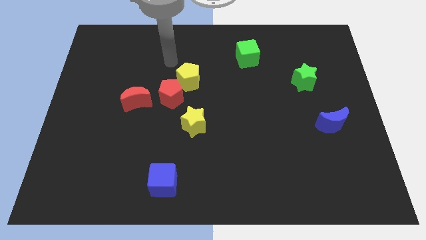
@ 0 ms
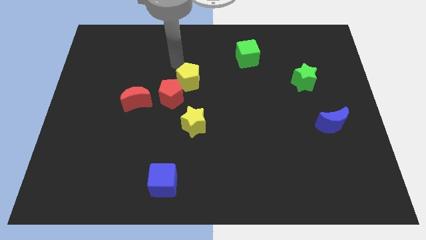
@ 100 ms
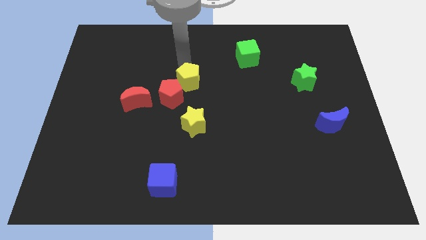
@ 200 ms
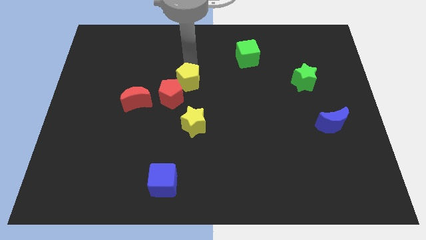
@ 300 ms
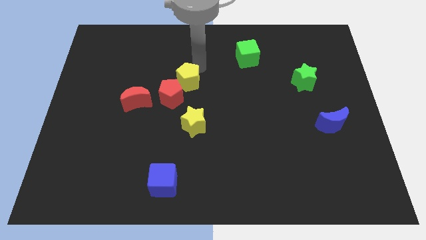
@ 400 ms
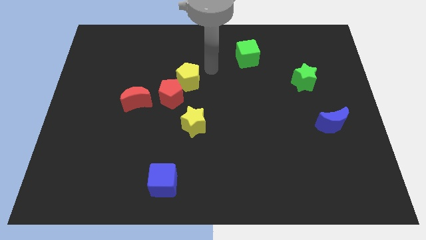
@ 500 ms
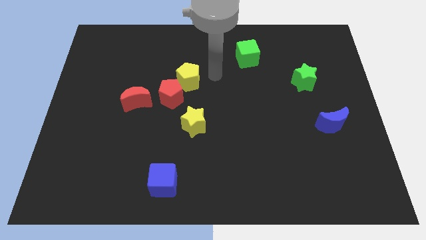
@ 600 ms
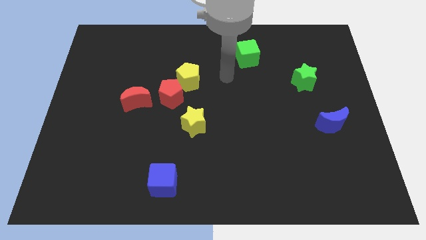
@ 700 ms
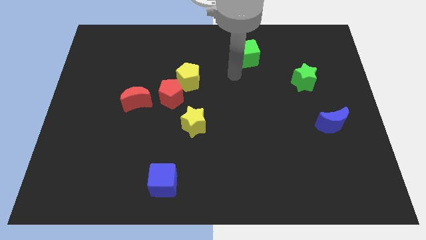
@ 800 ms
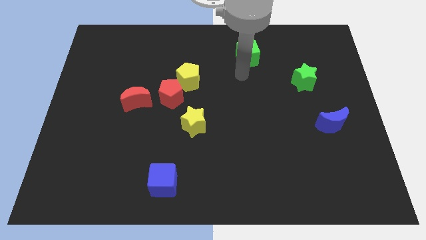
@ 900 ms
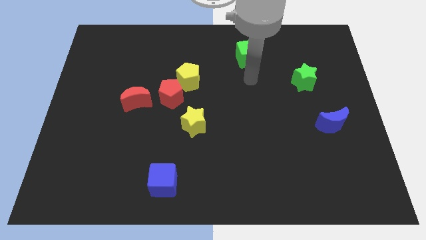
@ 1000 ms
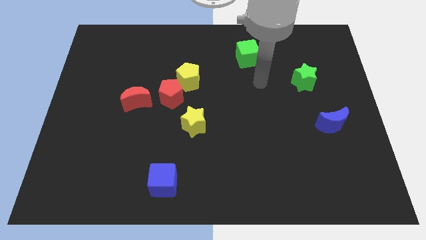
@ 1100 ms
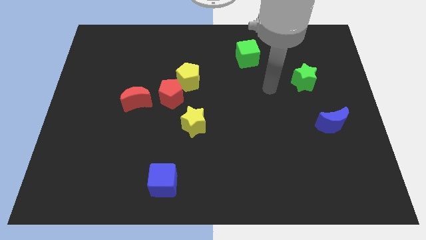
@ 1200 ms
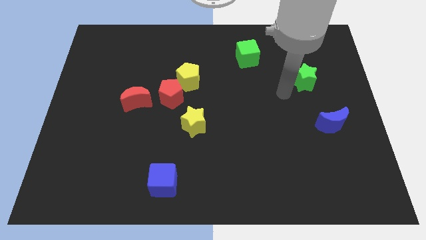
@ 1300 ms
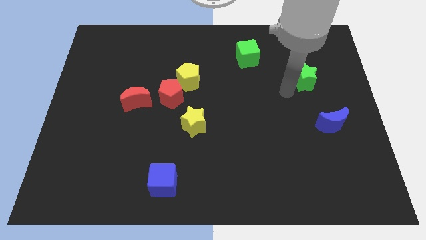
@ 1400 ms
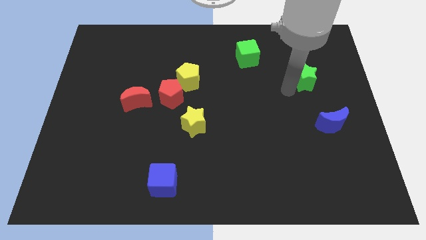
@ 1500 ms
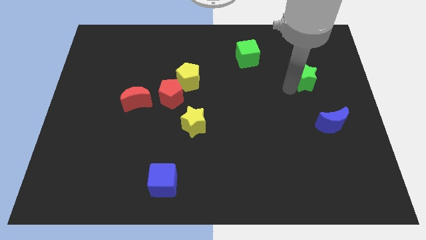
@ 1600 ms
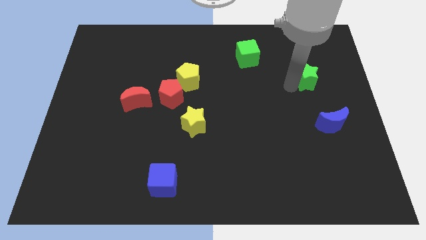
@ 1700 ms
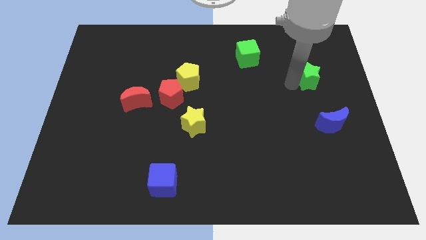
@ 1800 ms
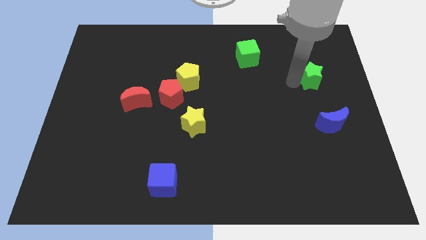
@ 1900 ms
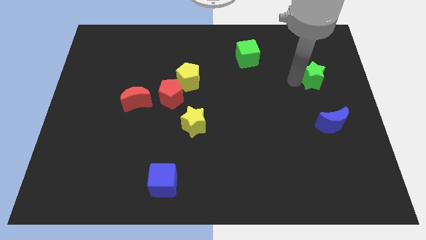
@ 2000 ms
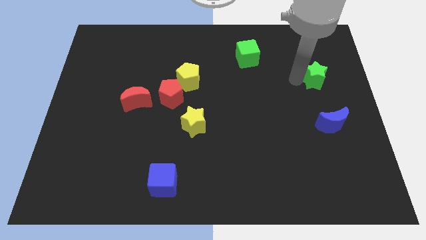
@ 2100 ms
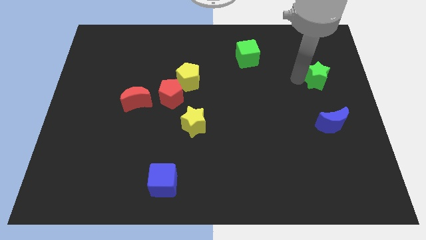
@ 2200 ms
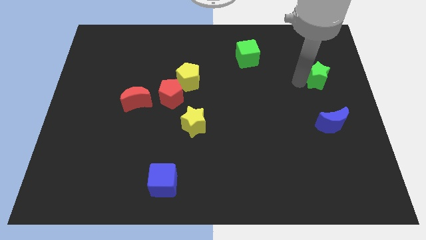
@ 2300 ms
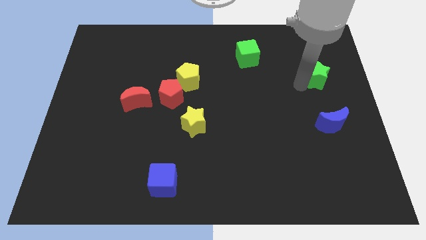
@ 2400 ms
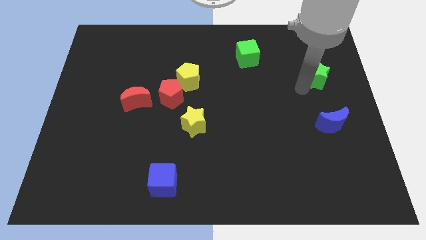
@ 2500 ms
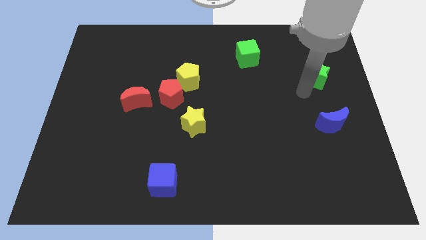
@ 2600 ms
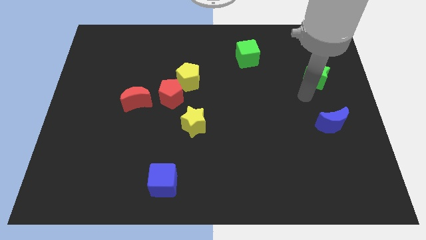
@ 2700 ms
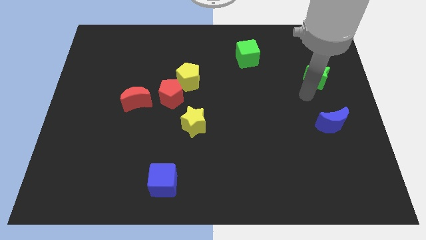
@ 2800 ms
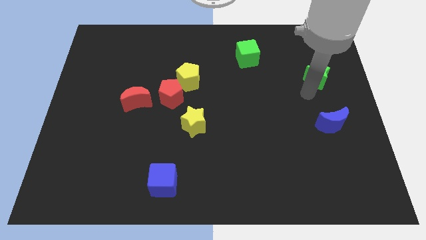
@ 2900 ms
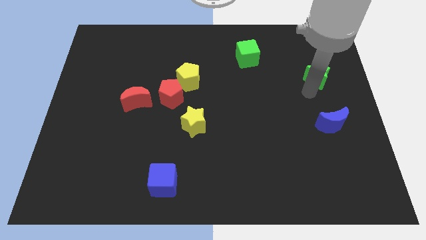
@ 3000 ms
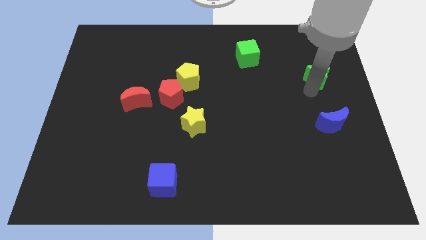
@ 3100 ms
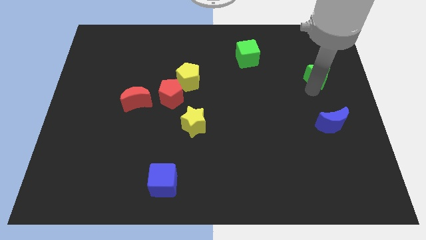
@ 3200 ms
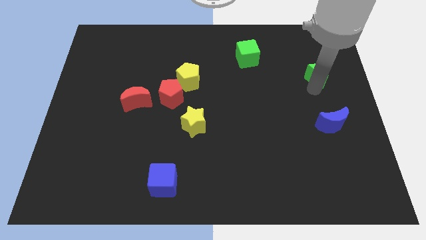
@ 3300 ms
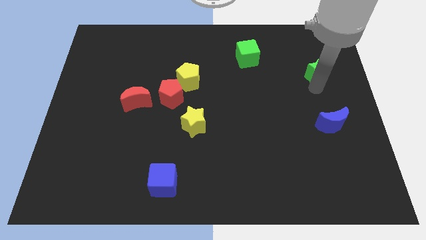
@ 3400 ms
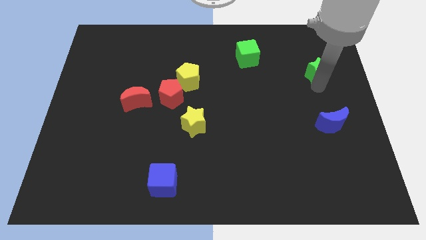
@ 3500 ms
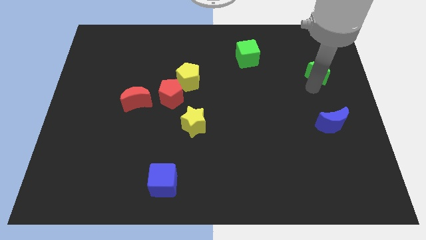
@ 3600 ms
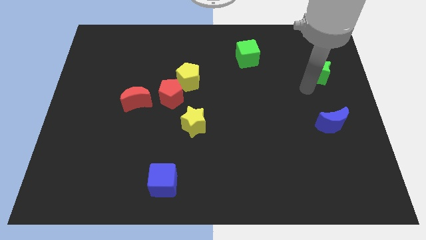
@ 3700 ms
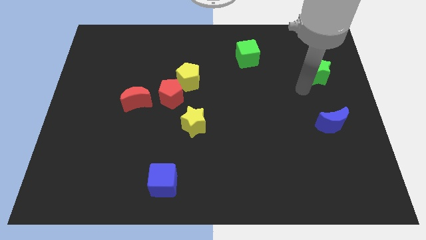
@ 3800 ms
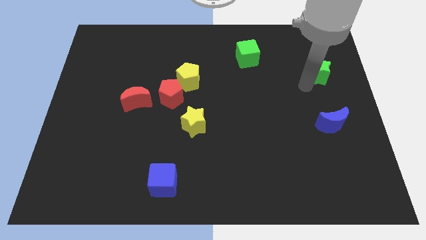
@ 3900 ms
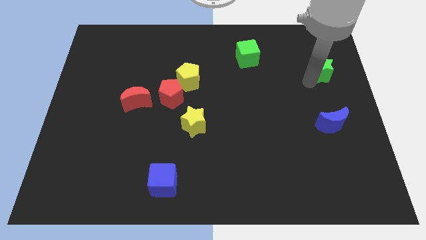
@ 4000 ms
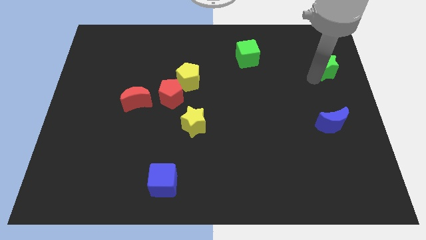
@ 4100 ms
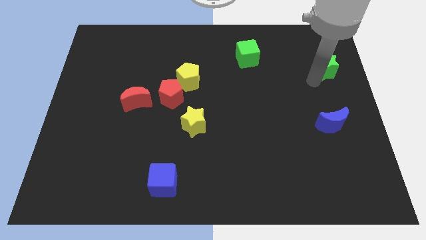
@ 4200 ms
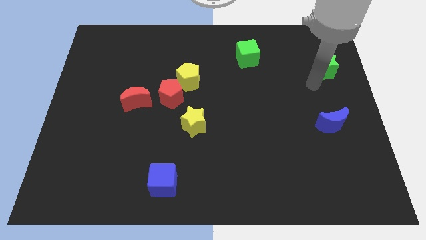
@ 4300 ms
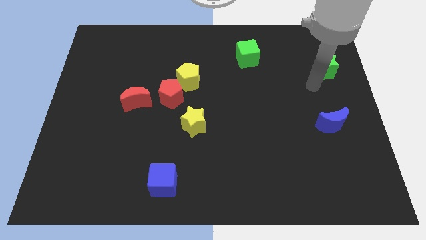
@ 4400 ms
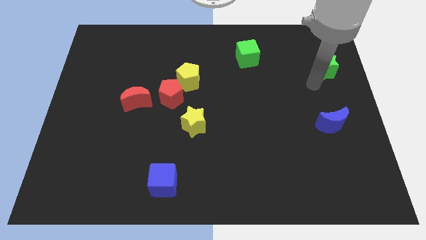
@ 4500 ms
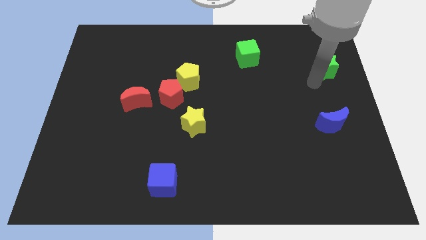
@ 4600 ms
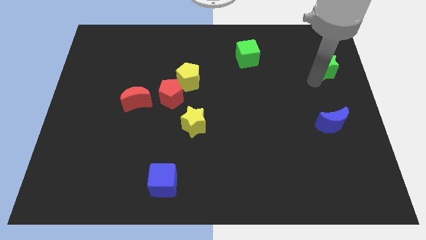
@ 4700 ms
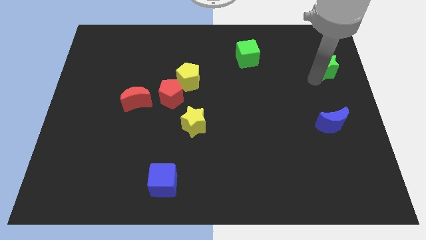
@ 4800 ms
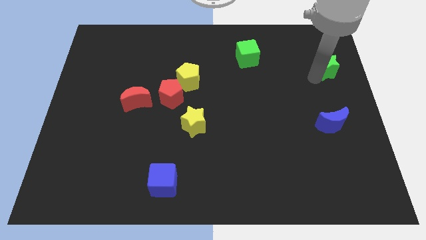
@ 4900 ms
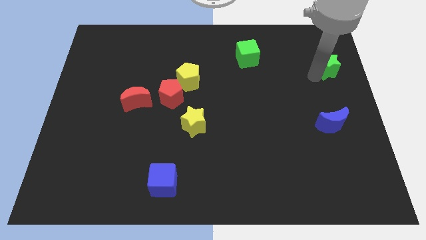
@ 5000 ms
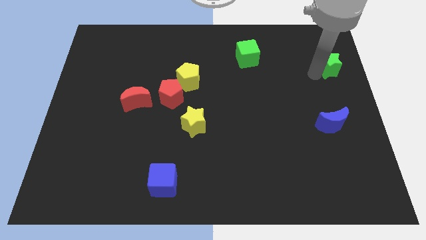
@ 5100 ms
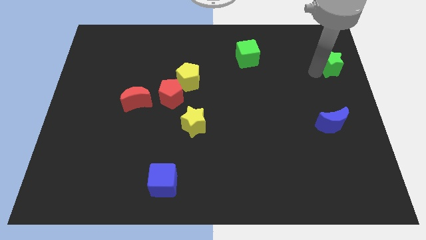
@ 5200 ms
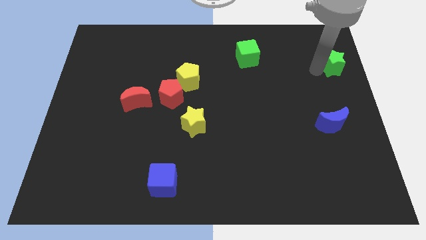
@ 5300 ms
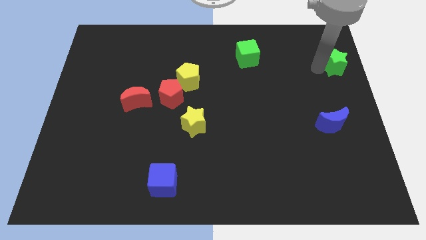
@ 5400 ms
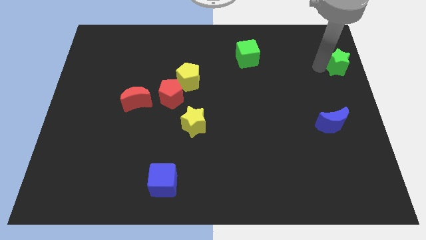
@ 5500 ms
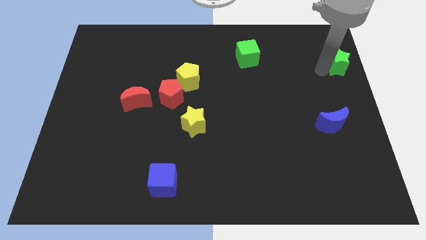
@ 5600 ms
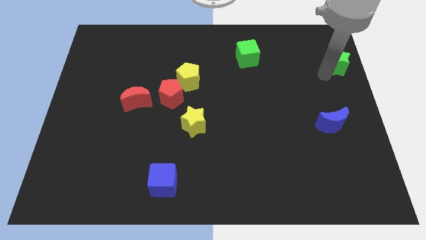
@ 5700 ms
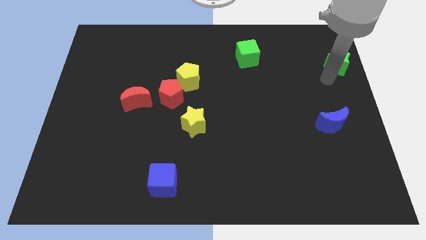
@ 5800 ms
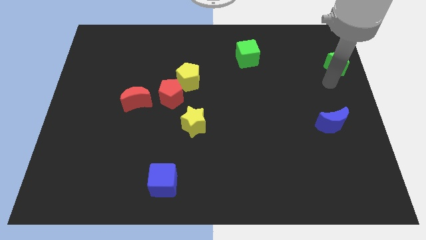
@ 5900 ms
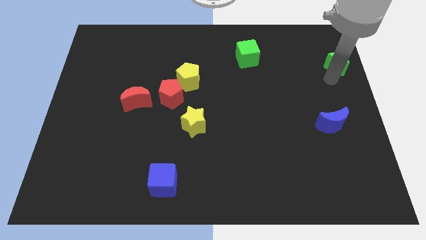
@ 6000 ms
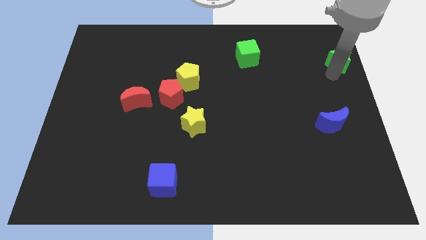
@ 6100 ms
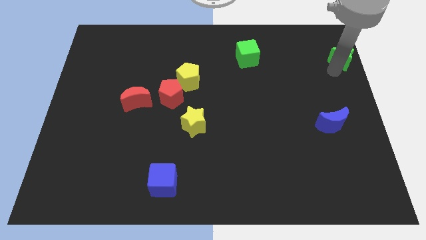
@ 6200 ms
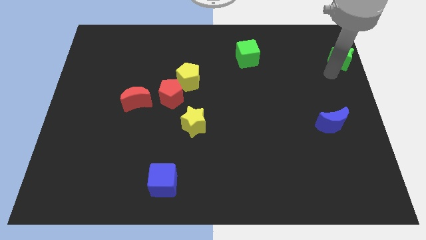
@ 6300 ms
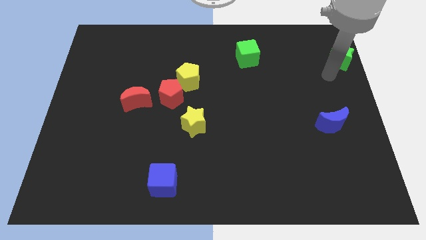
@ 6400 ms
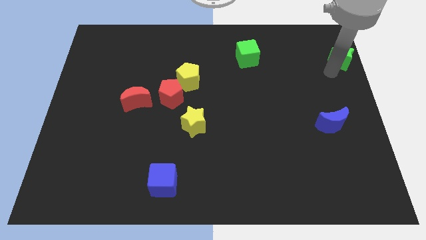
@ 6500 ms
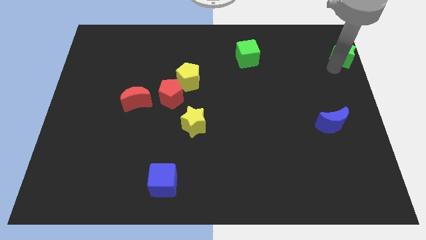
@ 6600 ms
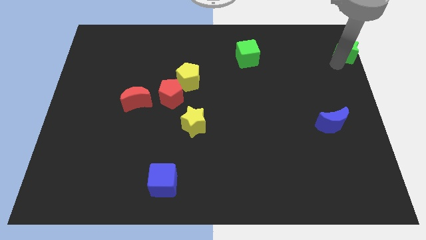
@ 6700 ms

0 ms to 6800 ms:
move the green star to the top right
